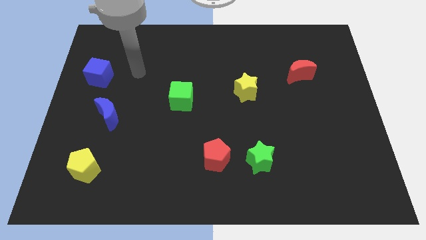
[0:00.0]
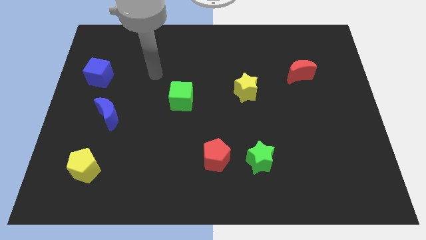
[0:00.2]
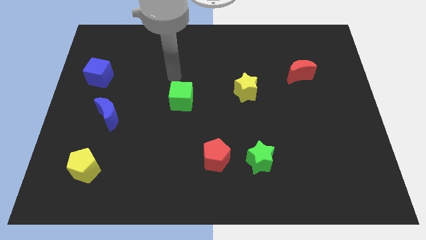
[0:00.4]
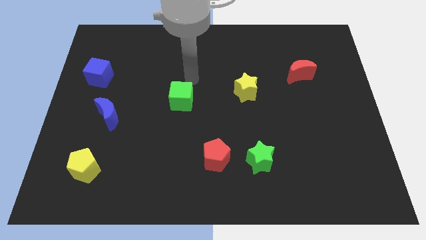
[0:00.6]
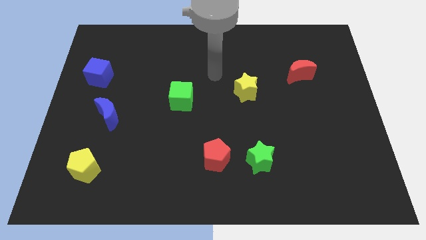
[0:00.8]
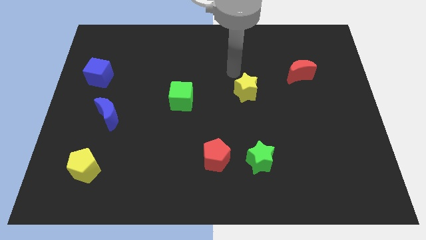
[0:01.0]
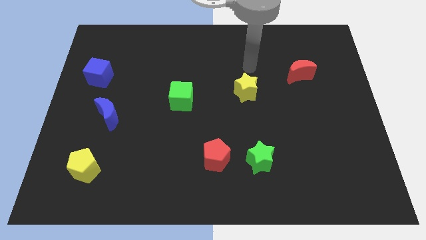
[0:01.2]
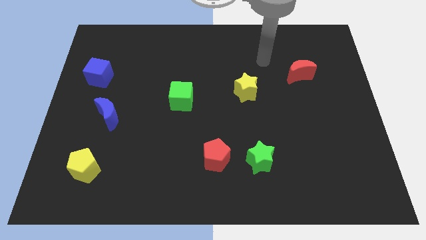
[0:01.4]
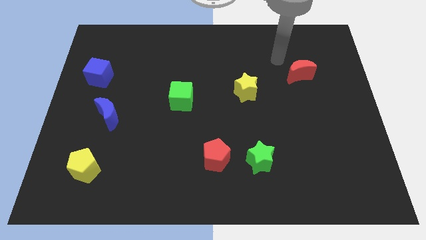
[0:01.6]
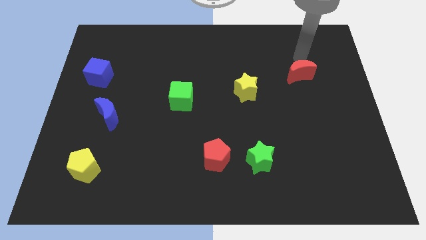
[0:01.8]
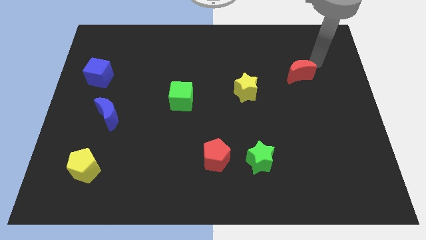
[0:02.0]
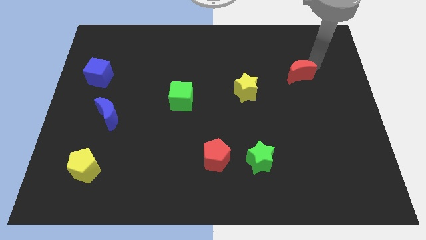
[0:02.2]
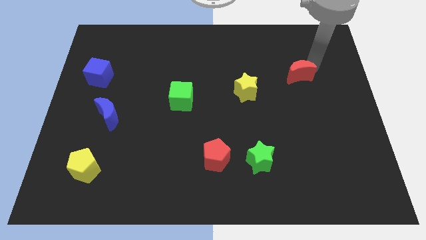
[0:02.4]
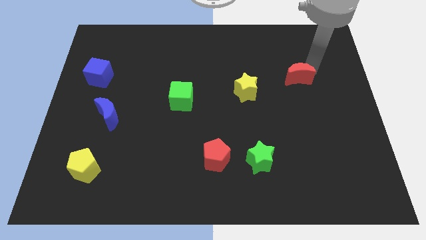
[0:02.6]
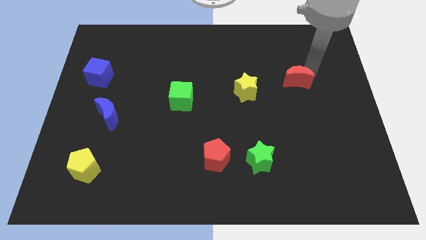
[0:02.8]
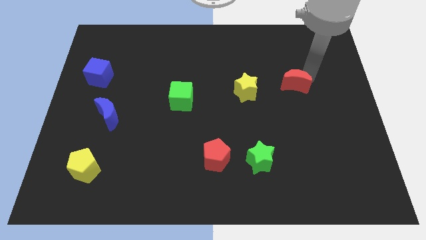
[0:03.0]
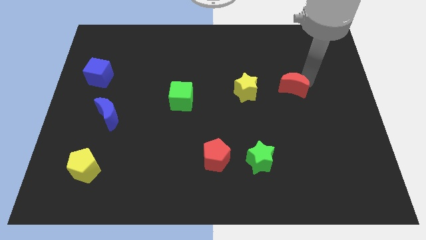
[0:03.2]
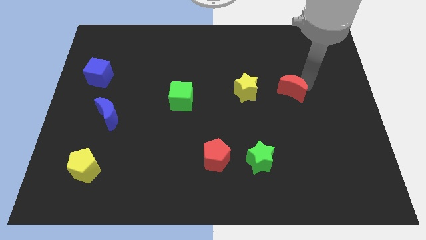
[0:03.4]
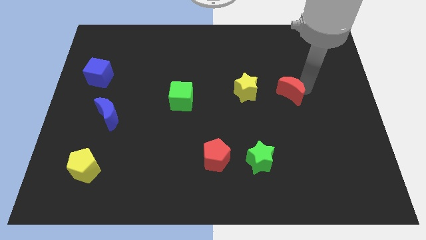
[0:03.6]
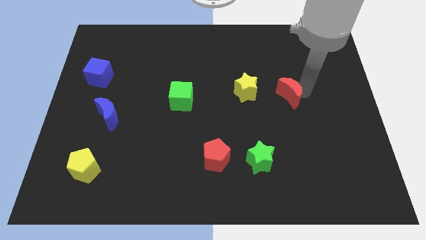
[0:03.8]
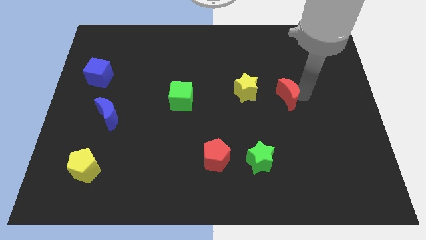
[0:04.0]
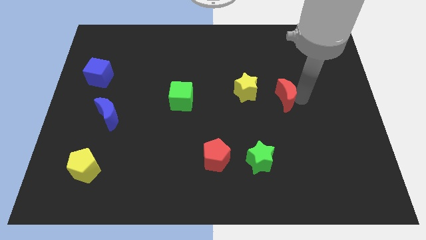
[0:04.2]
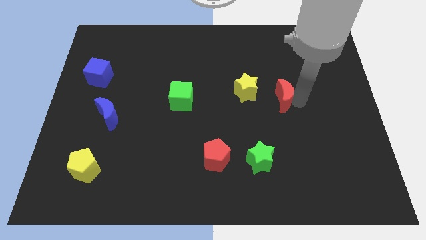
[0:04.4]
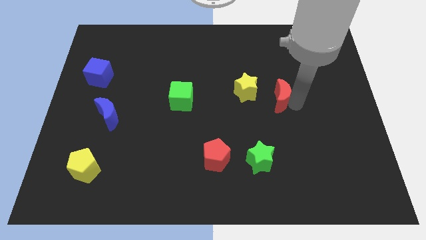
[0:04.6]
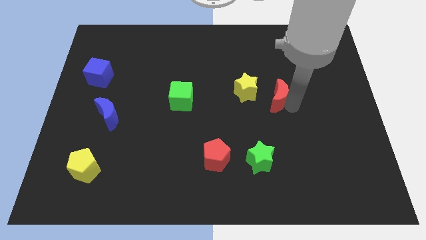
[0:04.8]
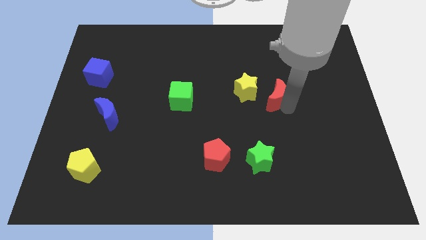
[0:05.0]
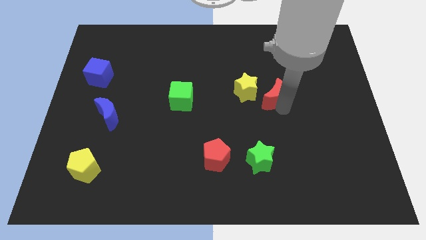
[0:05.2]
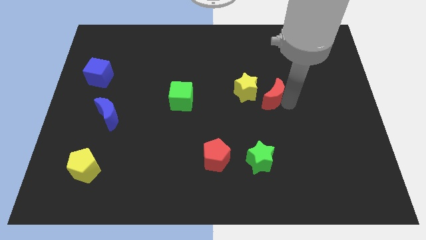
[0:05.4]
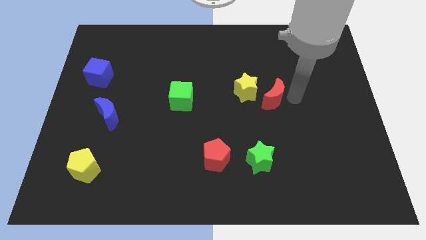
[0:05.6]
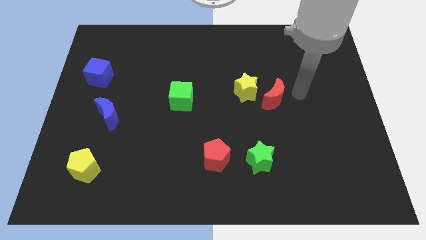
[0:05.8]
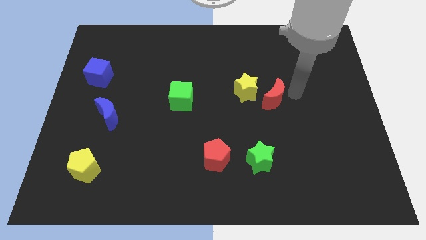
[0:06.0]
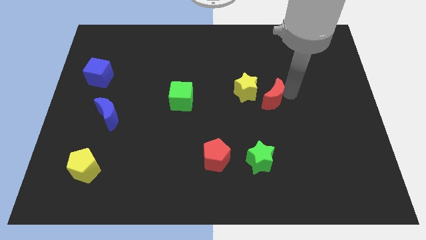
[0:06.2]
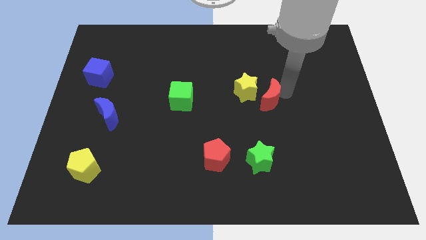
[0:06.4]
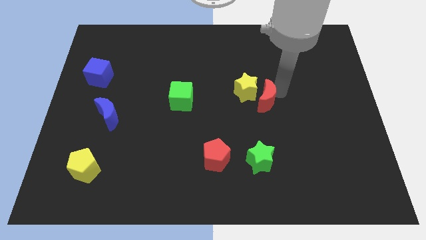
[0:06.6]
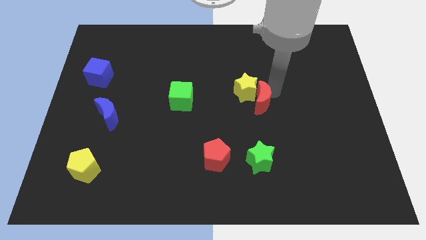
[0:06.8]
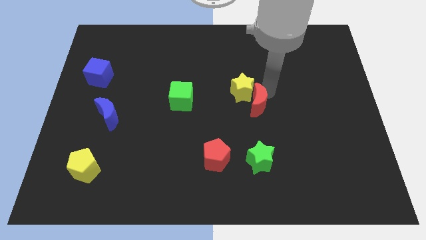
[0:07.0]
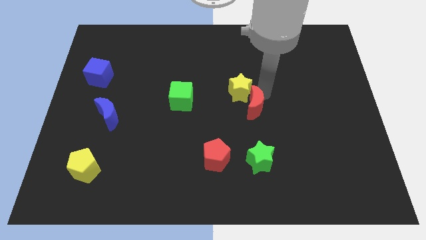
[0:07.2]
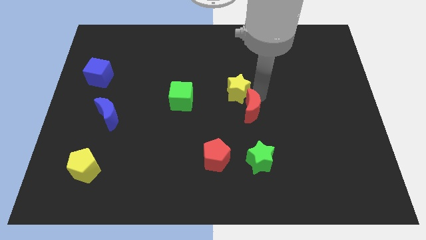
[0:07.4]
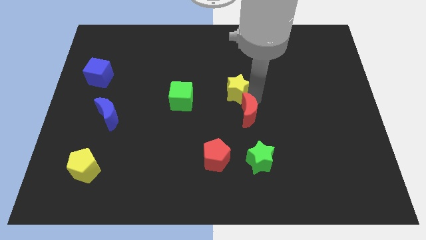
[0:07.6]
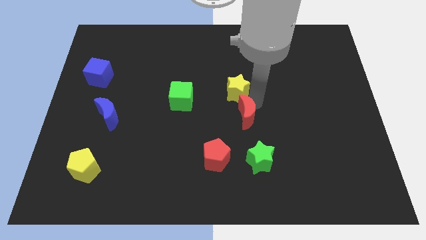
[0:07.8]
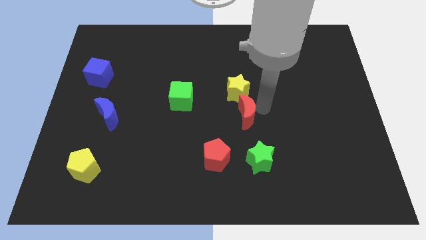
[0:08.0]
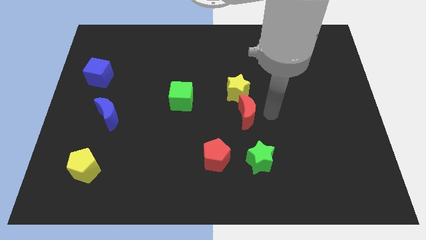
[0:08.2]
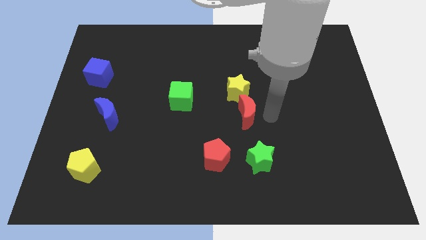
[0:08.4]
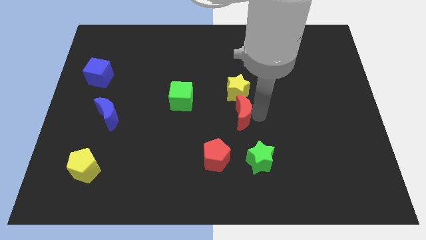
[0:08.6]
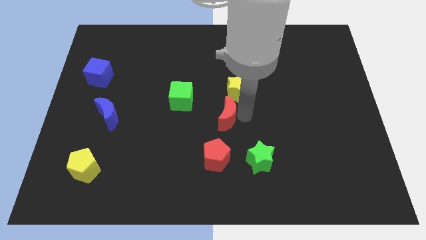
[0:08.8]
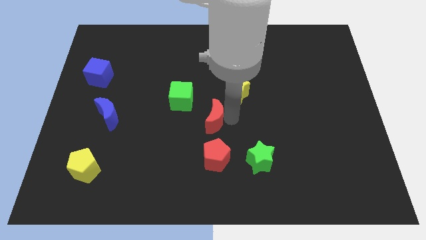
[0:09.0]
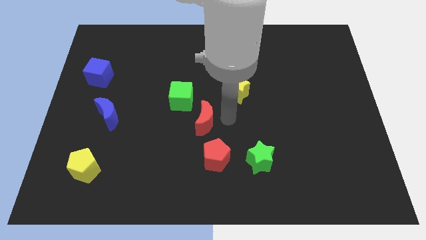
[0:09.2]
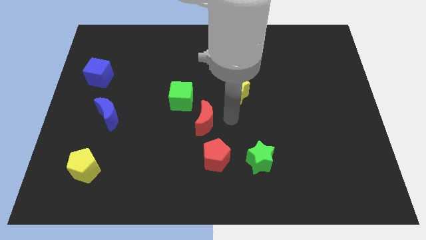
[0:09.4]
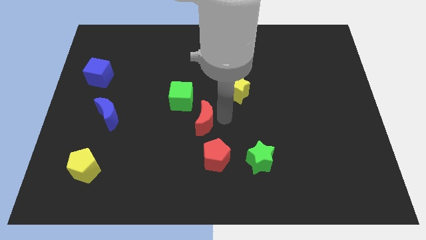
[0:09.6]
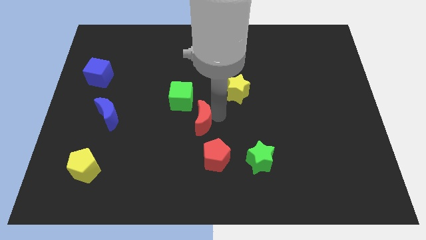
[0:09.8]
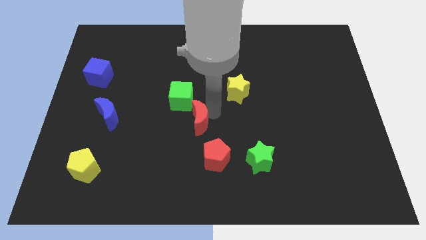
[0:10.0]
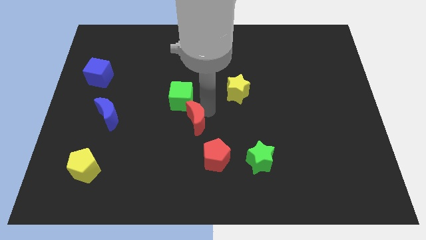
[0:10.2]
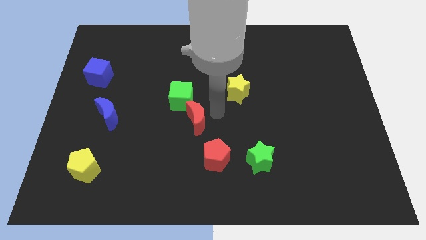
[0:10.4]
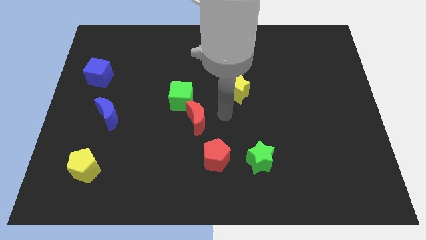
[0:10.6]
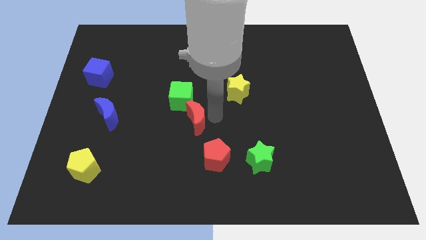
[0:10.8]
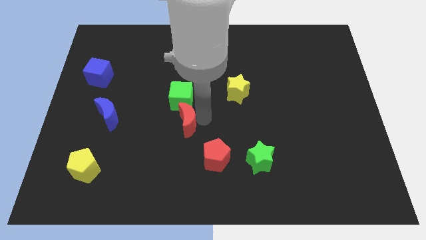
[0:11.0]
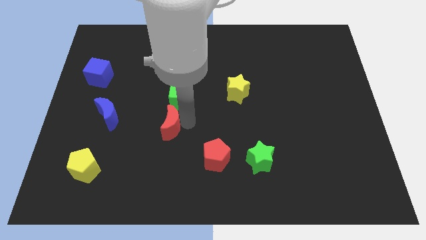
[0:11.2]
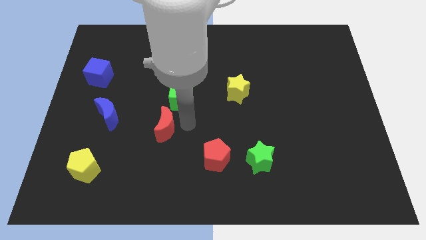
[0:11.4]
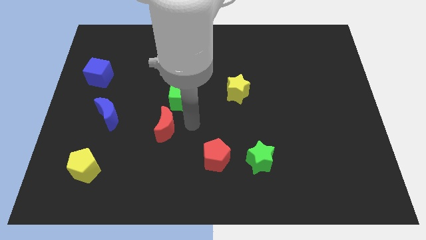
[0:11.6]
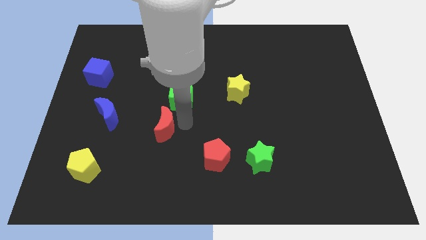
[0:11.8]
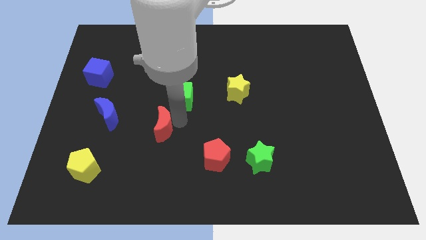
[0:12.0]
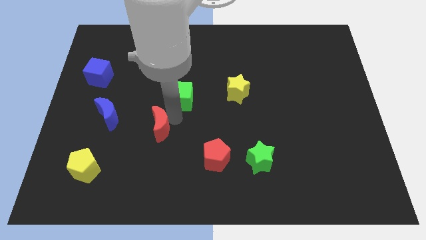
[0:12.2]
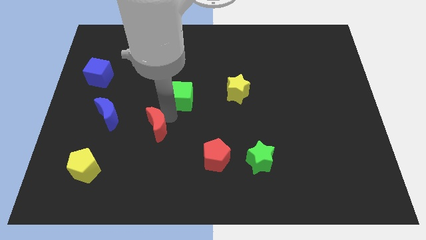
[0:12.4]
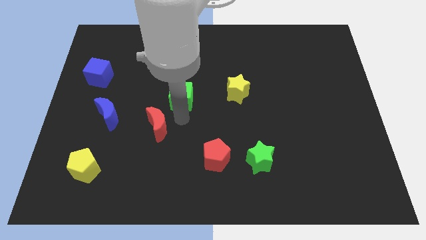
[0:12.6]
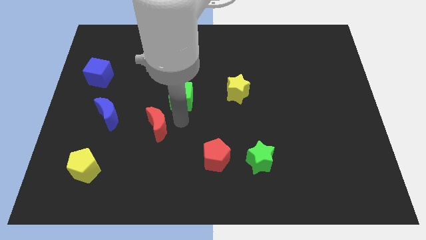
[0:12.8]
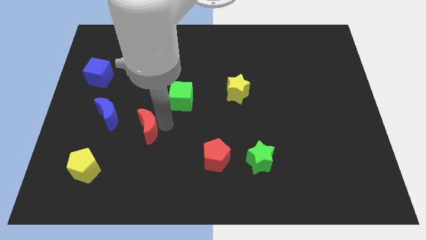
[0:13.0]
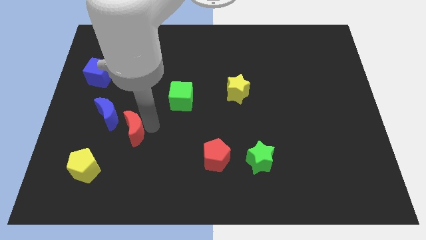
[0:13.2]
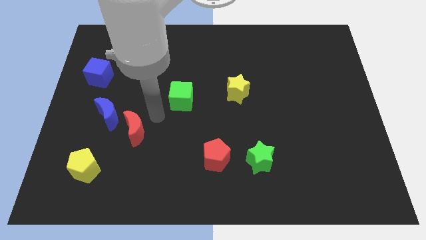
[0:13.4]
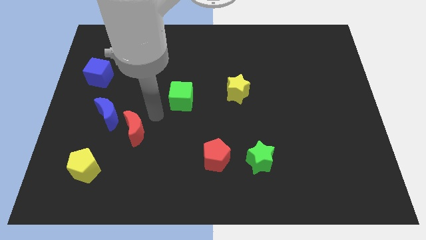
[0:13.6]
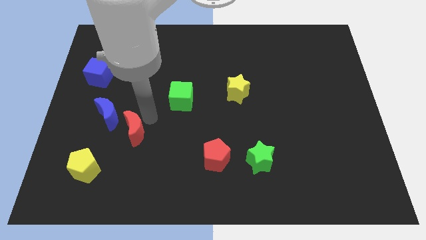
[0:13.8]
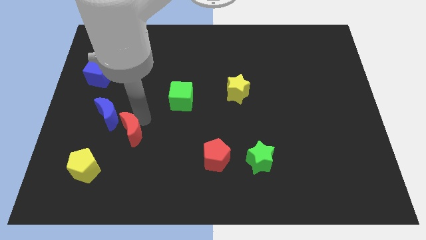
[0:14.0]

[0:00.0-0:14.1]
push the red moon diagonally up and to the right of the yellow pentagon
